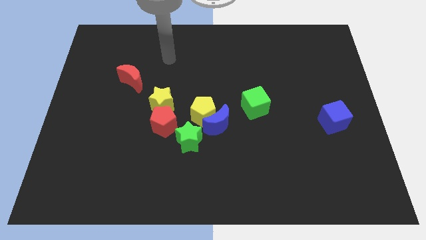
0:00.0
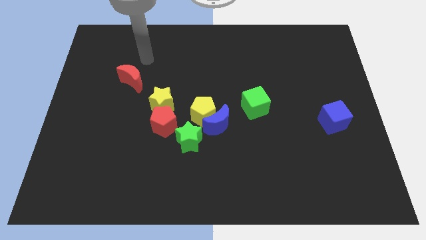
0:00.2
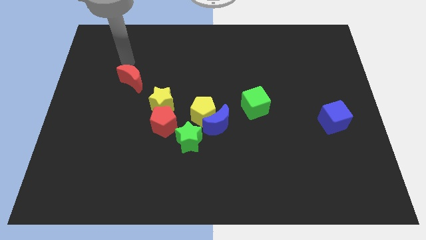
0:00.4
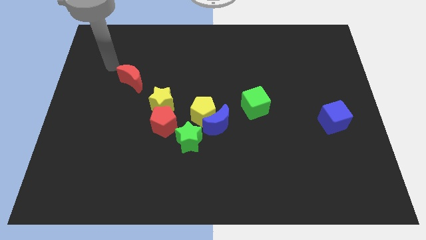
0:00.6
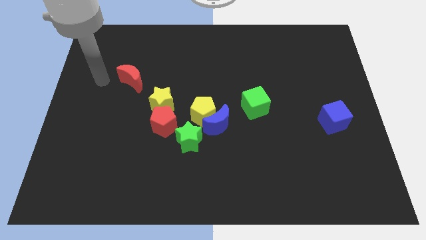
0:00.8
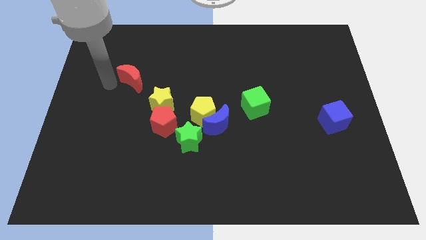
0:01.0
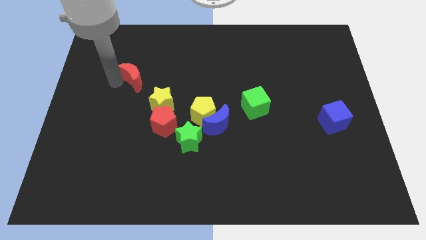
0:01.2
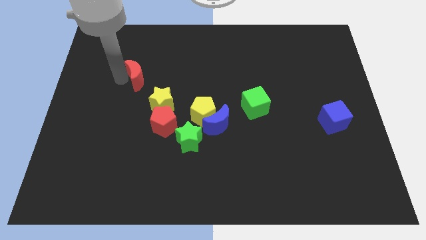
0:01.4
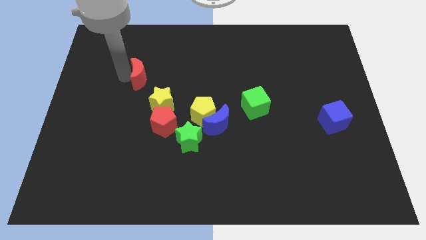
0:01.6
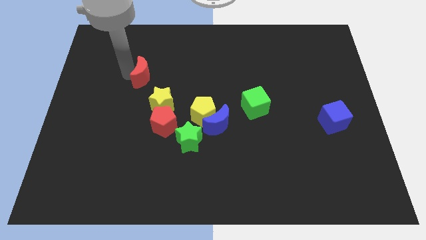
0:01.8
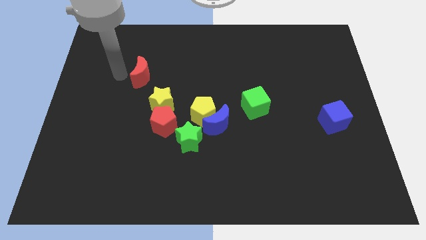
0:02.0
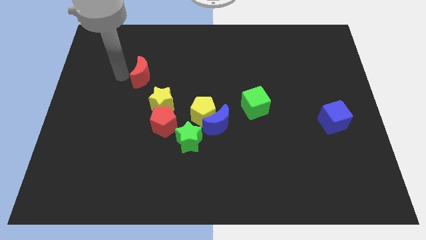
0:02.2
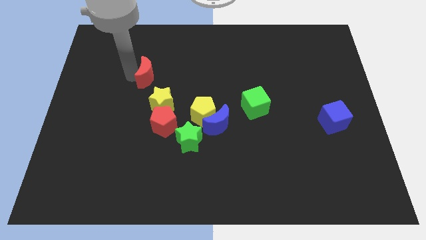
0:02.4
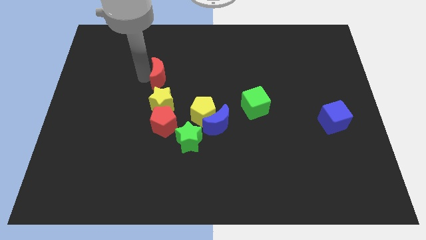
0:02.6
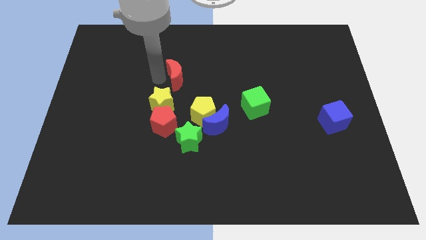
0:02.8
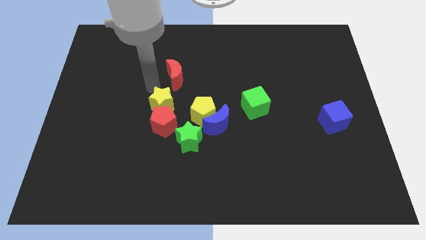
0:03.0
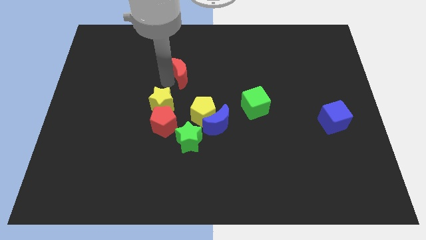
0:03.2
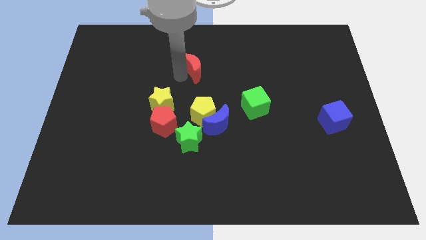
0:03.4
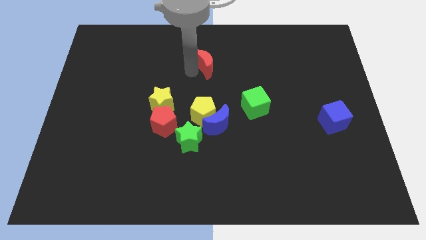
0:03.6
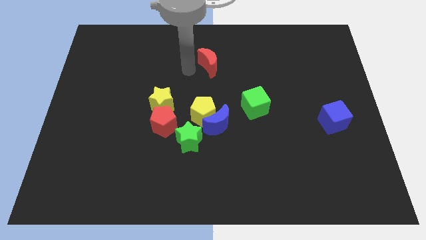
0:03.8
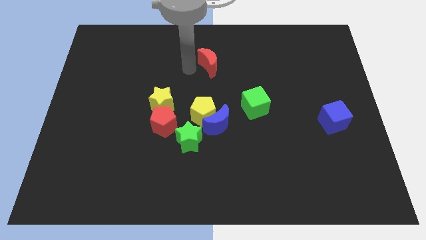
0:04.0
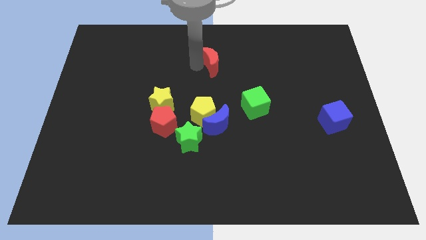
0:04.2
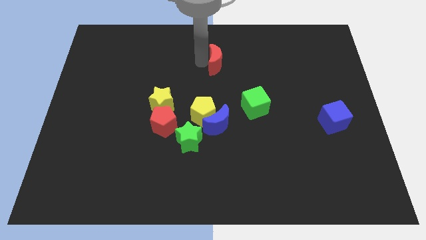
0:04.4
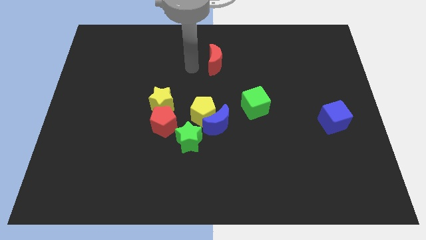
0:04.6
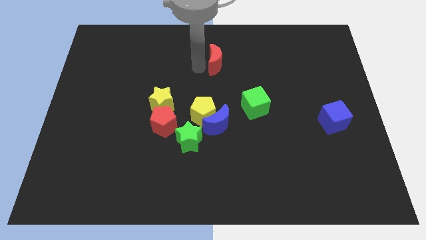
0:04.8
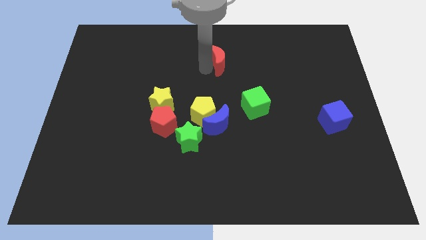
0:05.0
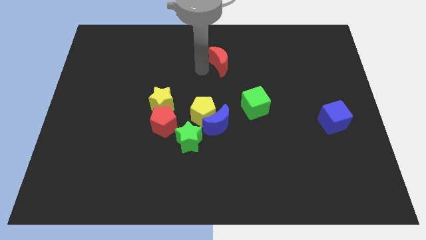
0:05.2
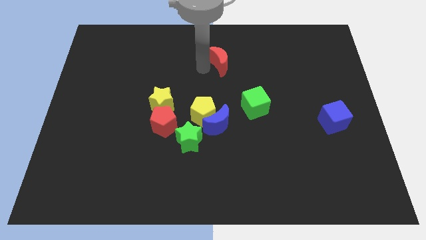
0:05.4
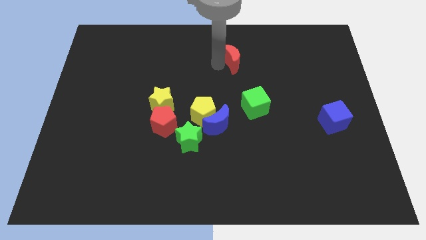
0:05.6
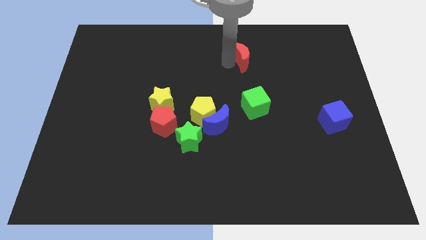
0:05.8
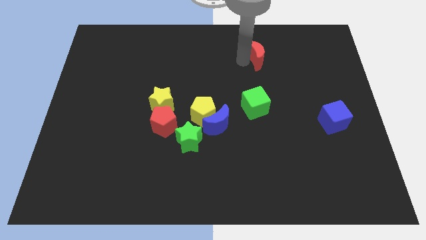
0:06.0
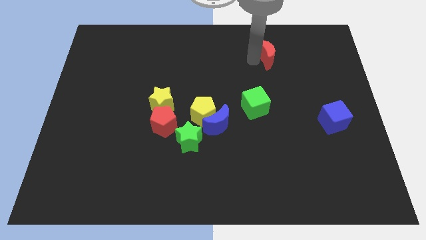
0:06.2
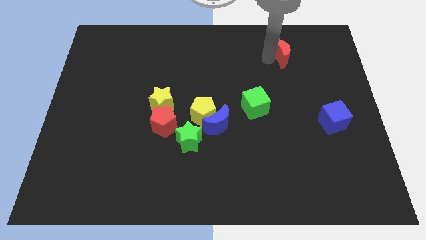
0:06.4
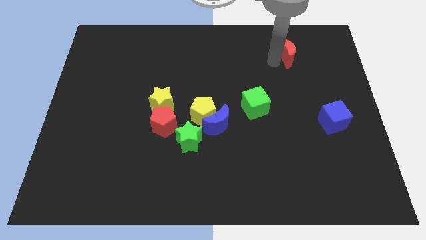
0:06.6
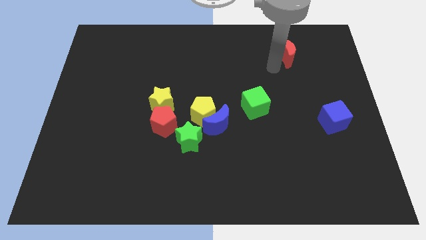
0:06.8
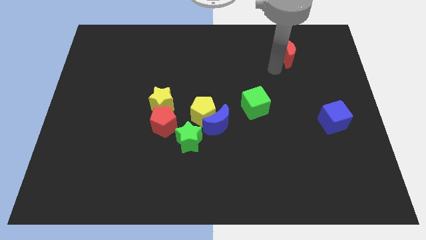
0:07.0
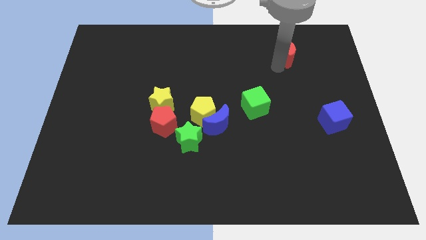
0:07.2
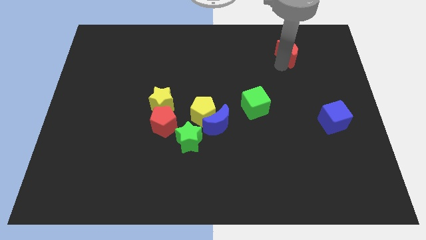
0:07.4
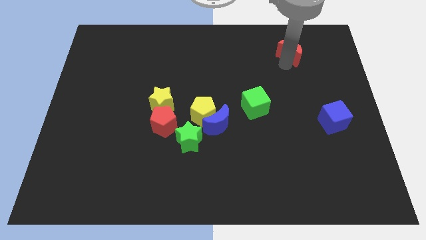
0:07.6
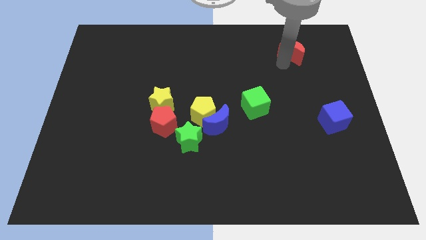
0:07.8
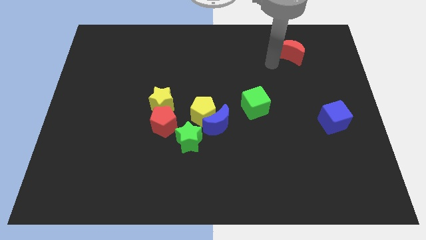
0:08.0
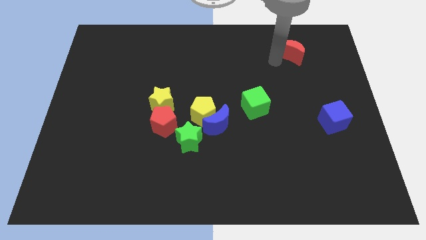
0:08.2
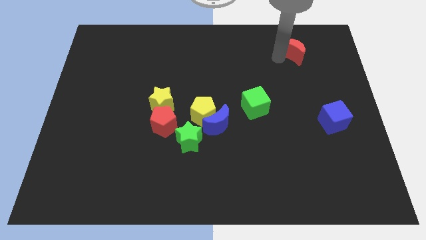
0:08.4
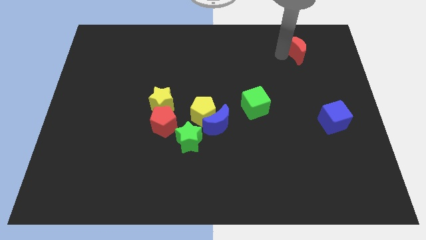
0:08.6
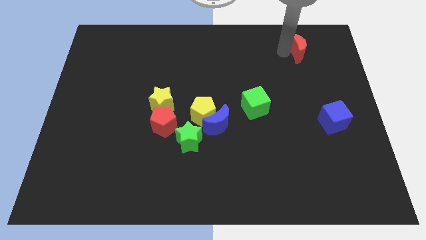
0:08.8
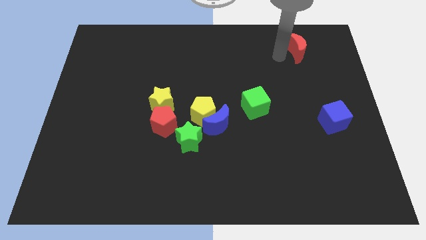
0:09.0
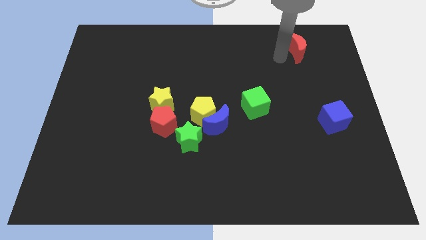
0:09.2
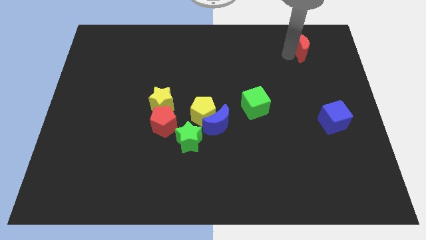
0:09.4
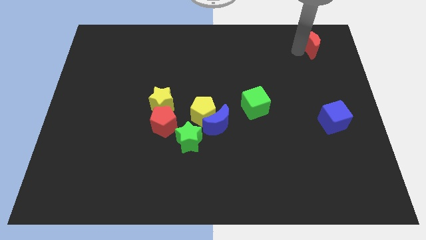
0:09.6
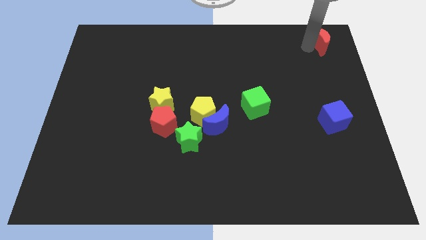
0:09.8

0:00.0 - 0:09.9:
push the red moon to the upper right corner

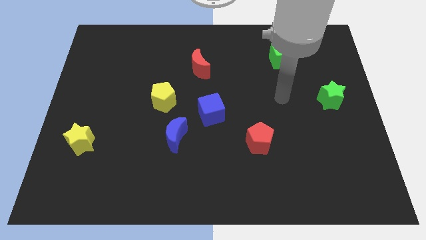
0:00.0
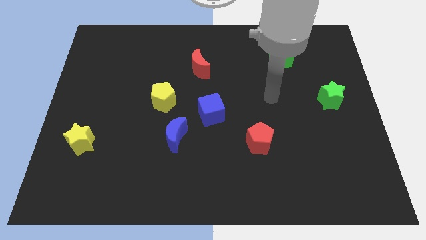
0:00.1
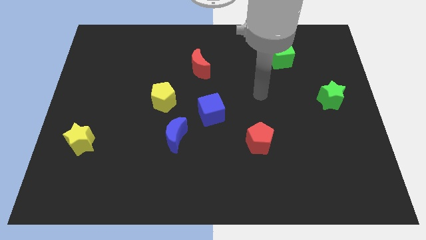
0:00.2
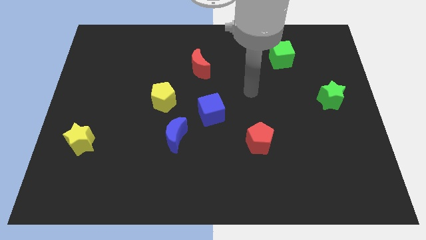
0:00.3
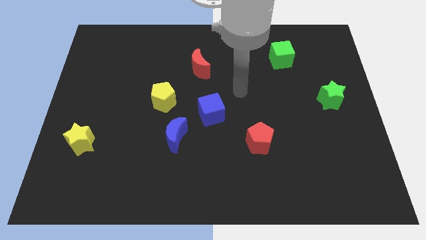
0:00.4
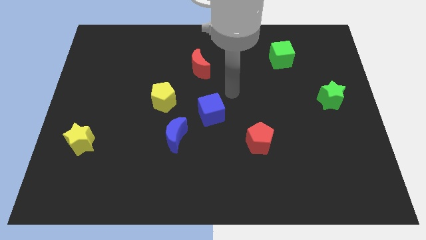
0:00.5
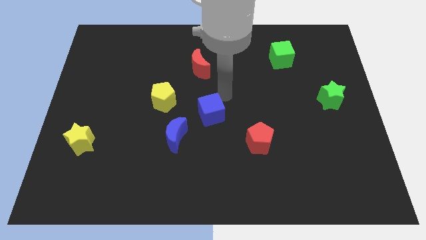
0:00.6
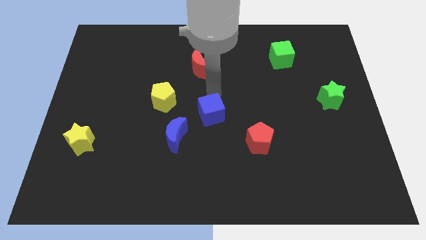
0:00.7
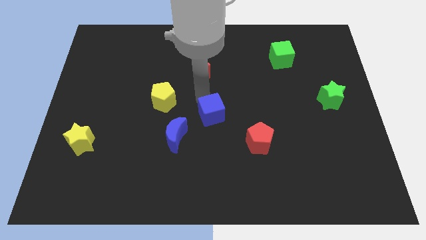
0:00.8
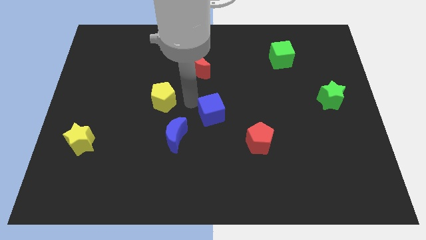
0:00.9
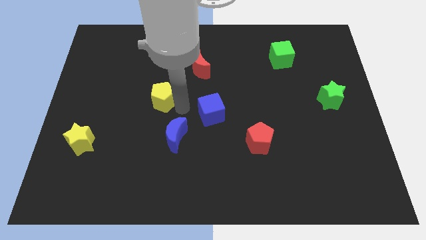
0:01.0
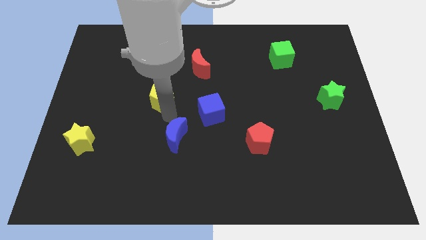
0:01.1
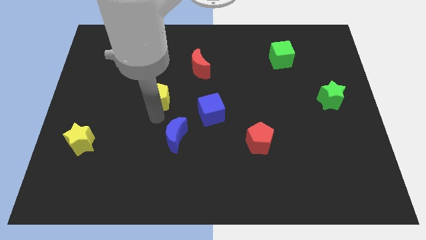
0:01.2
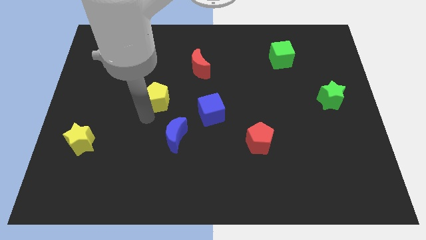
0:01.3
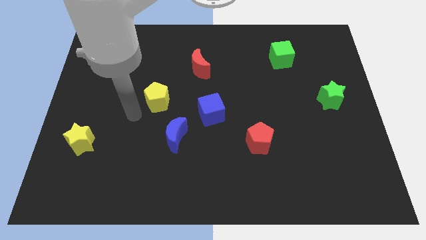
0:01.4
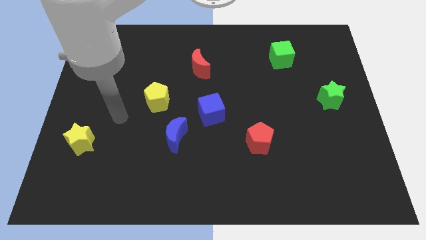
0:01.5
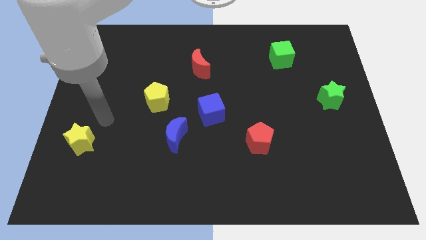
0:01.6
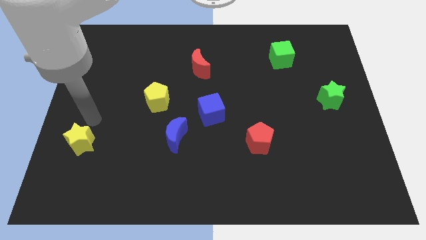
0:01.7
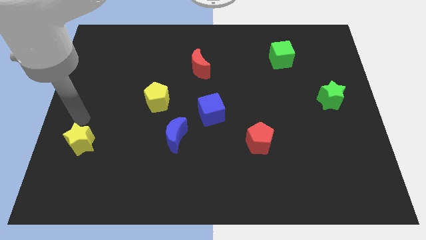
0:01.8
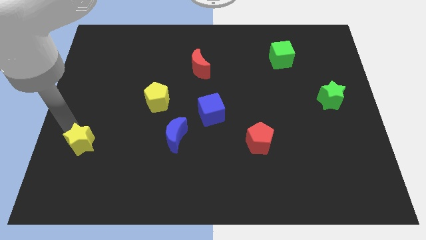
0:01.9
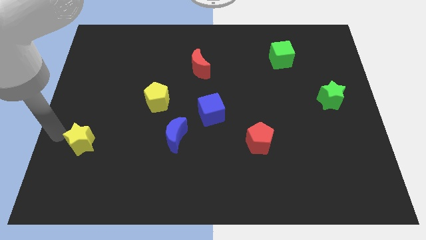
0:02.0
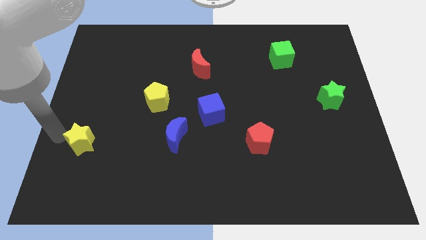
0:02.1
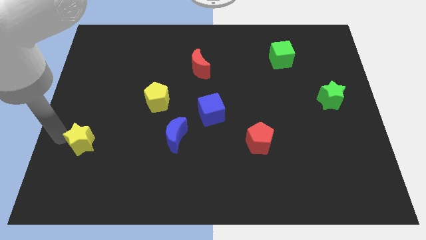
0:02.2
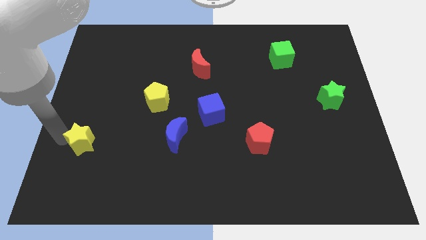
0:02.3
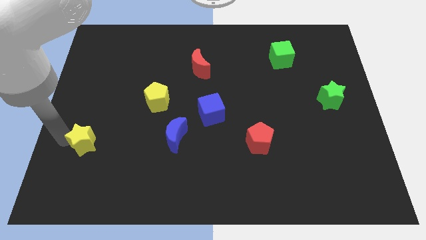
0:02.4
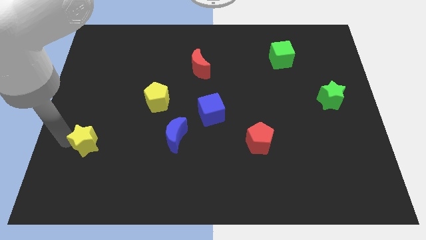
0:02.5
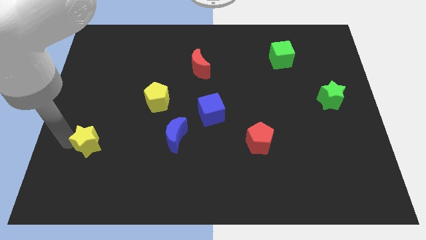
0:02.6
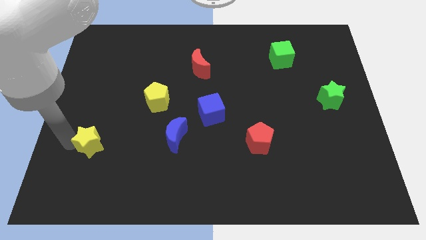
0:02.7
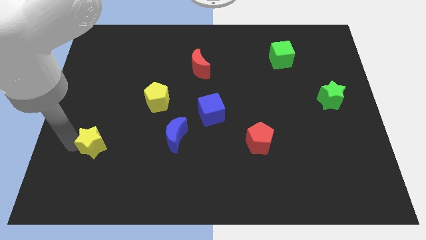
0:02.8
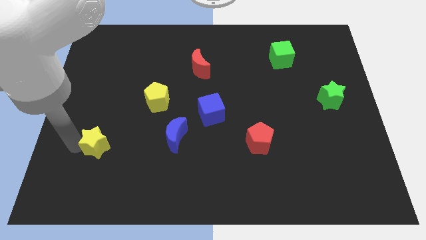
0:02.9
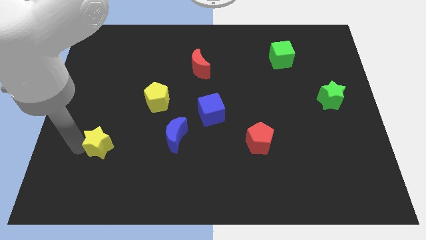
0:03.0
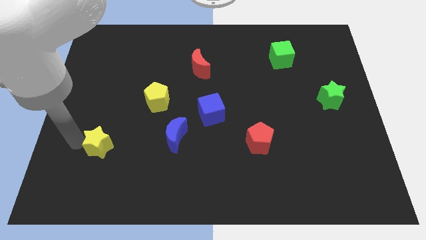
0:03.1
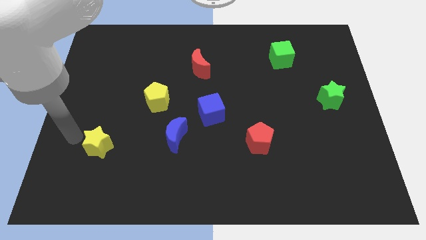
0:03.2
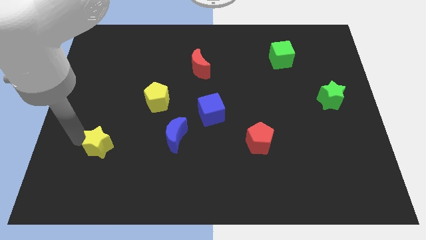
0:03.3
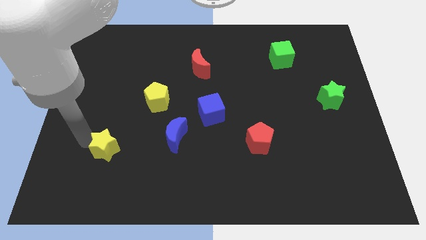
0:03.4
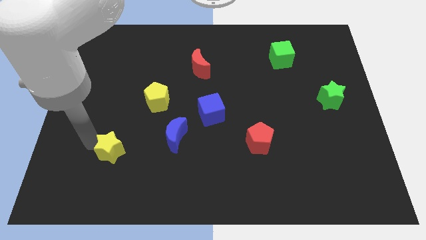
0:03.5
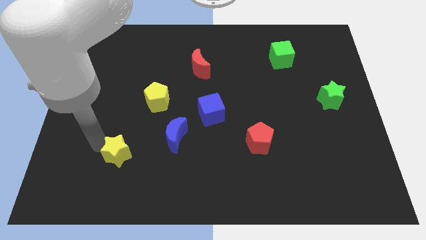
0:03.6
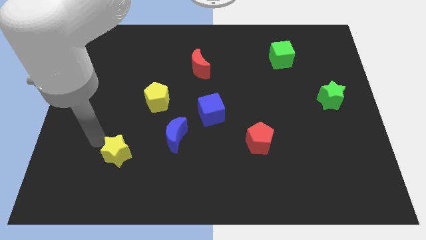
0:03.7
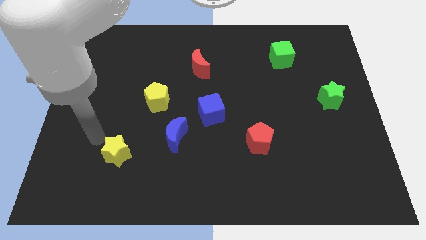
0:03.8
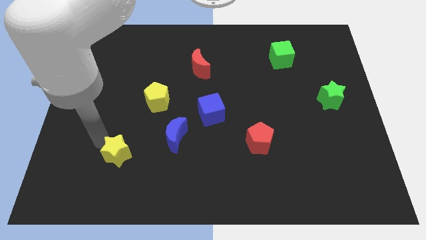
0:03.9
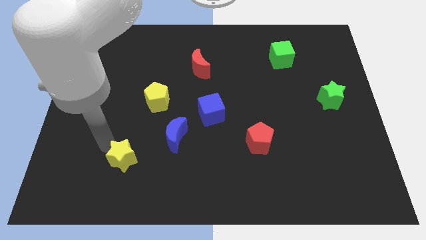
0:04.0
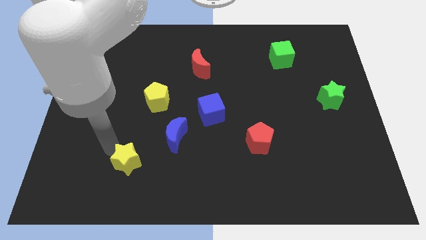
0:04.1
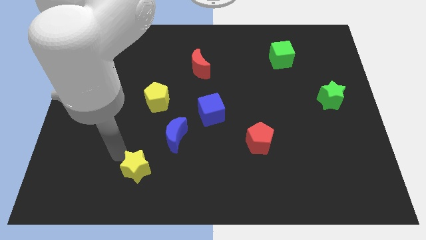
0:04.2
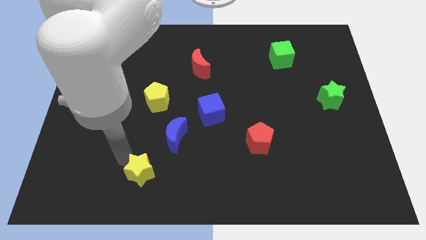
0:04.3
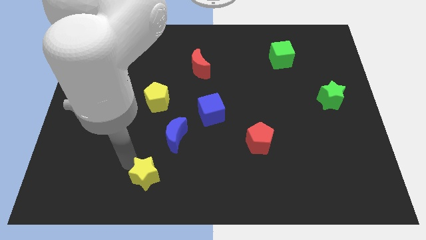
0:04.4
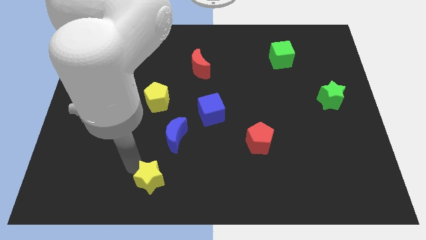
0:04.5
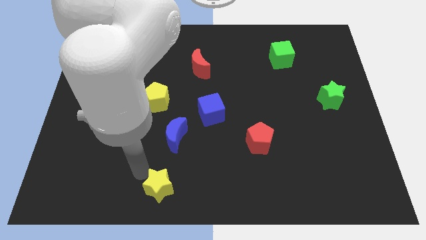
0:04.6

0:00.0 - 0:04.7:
move the yellow star to the bottom
